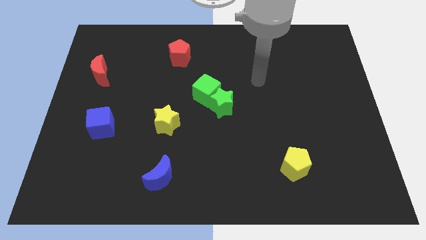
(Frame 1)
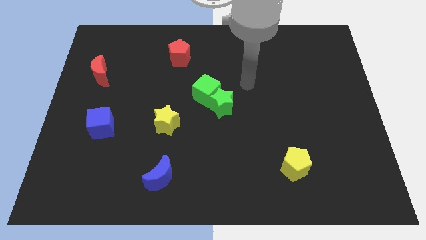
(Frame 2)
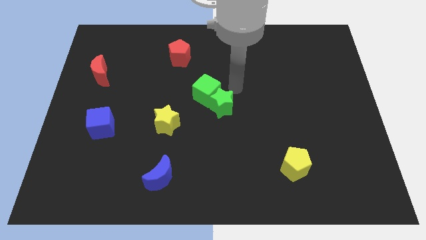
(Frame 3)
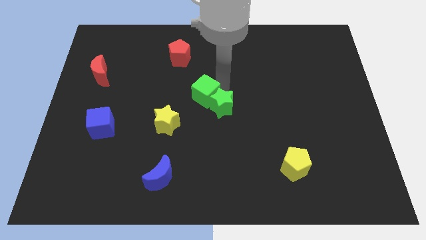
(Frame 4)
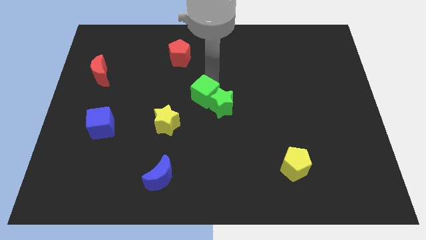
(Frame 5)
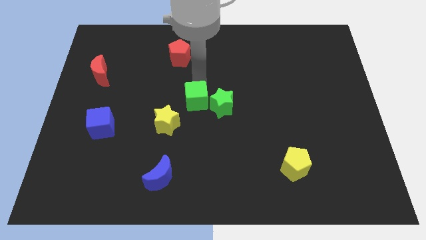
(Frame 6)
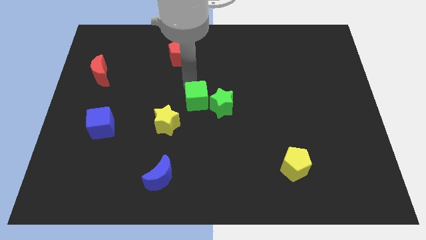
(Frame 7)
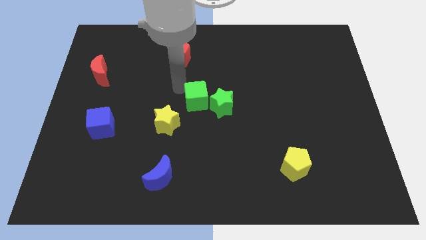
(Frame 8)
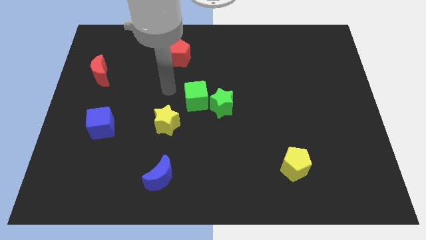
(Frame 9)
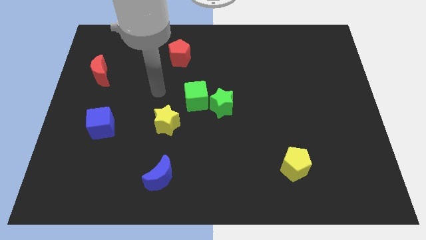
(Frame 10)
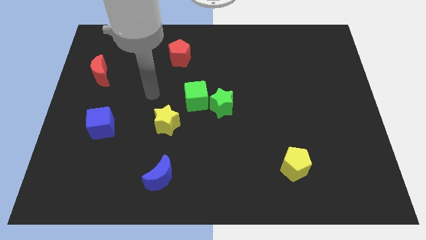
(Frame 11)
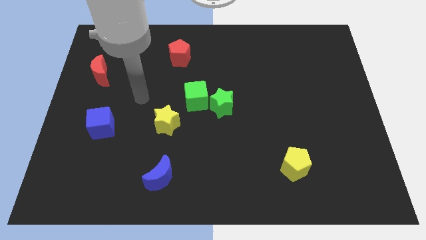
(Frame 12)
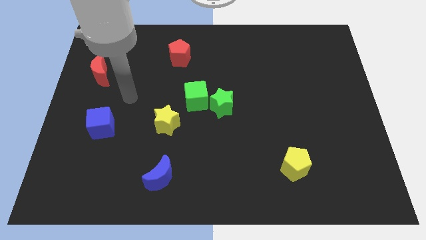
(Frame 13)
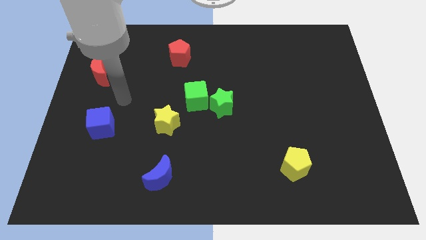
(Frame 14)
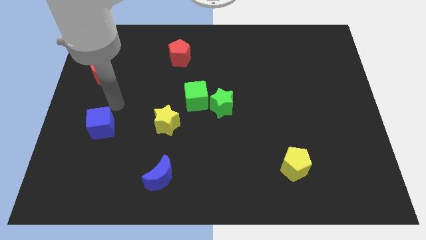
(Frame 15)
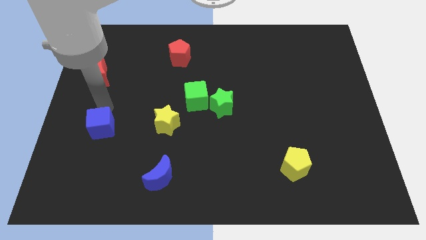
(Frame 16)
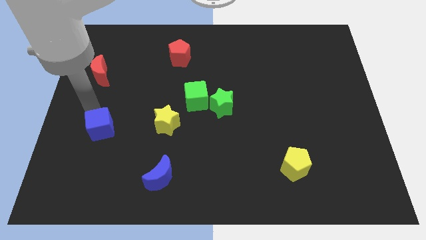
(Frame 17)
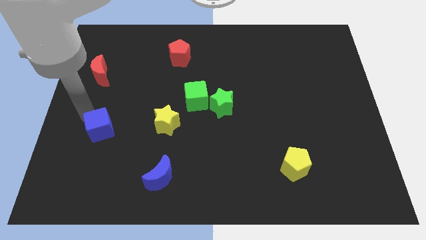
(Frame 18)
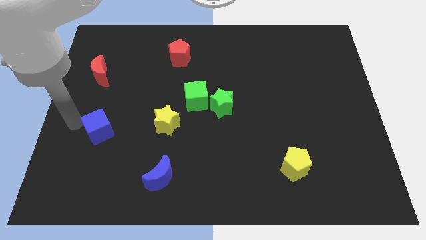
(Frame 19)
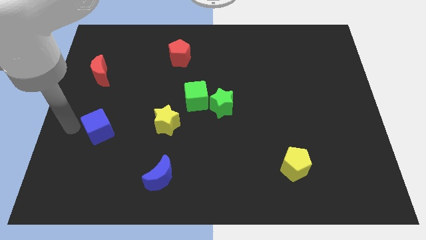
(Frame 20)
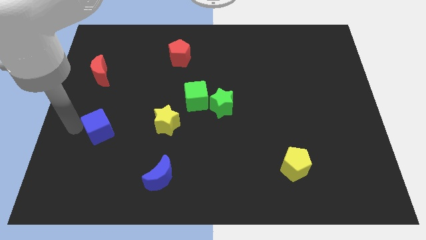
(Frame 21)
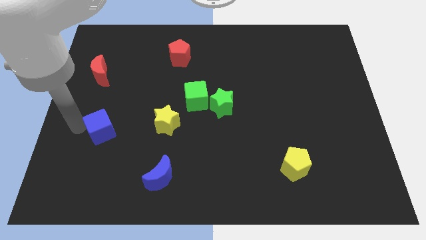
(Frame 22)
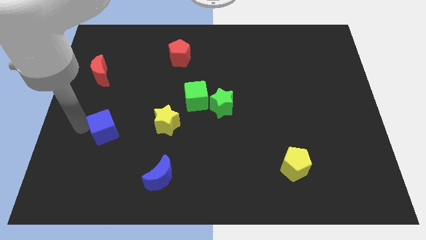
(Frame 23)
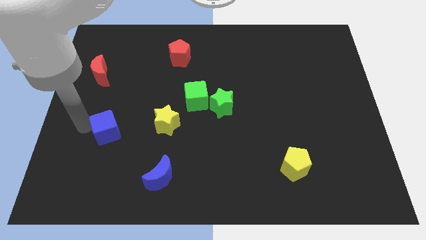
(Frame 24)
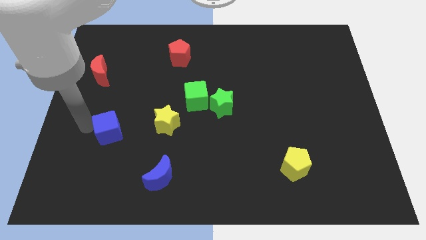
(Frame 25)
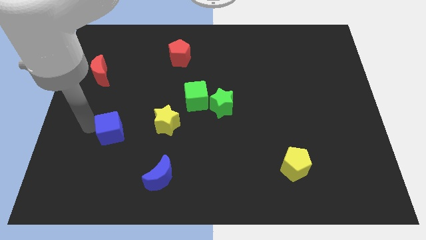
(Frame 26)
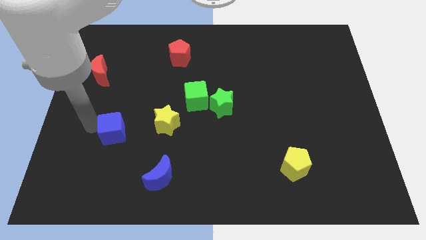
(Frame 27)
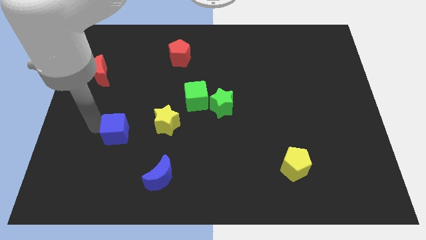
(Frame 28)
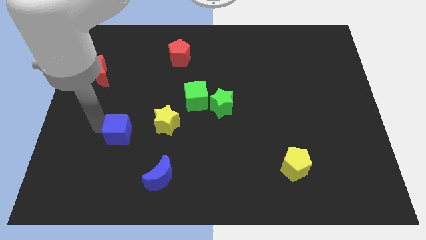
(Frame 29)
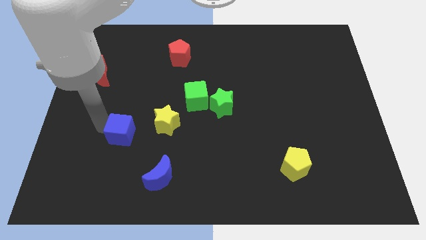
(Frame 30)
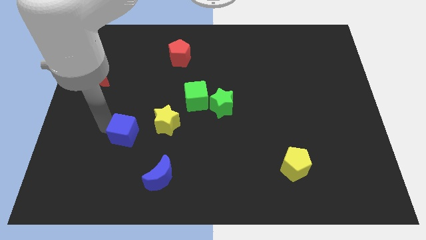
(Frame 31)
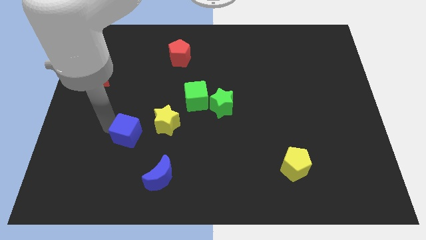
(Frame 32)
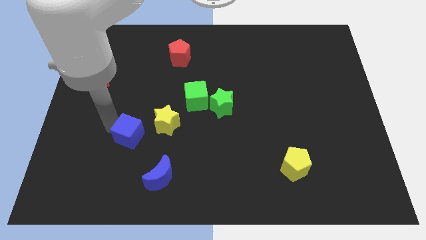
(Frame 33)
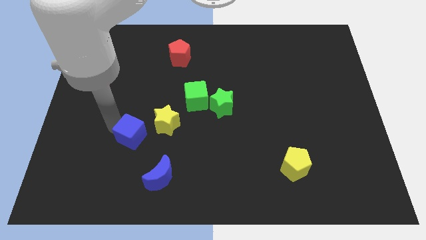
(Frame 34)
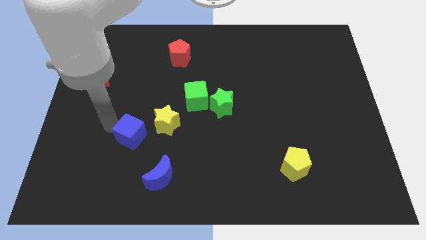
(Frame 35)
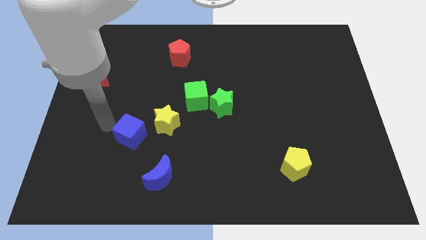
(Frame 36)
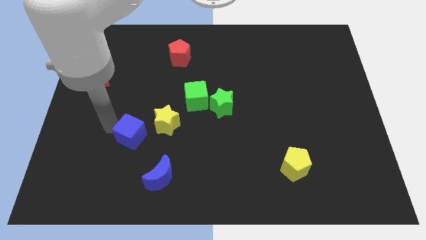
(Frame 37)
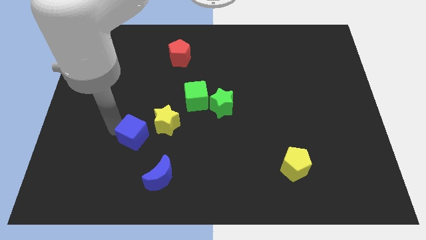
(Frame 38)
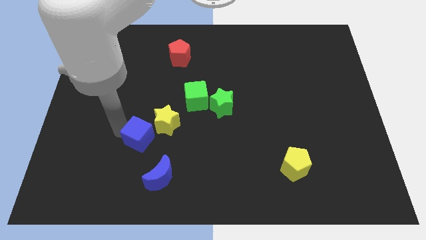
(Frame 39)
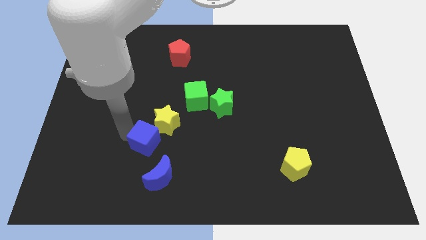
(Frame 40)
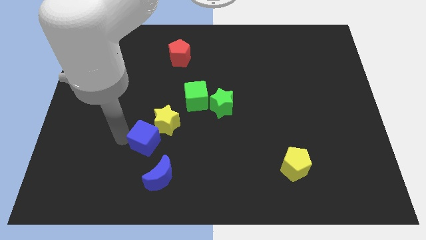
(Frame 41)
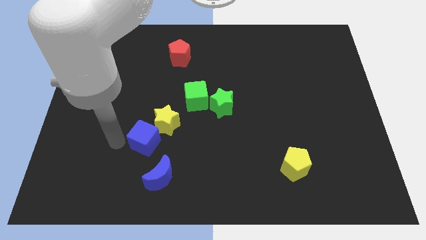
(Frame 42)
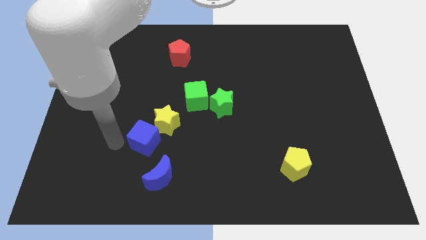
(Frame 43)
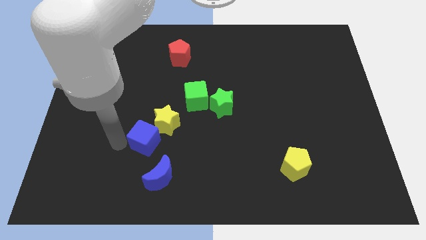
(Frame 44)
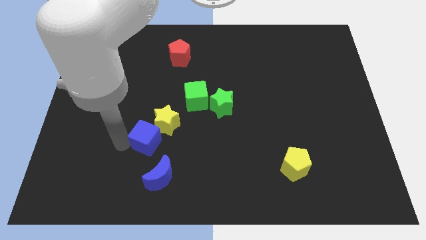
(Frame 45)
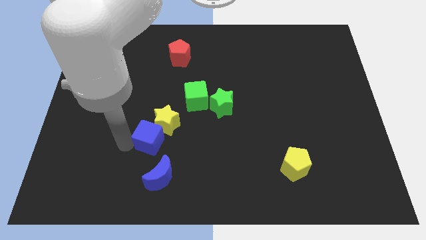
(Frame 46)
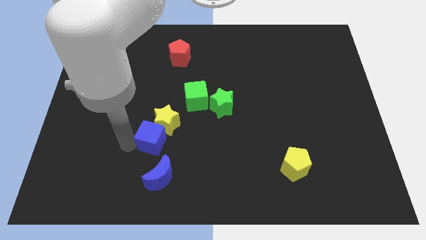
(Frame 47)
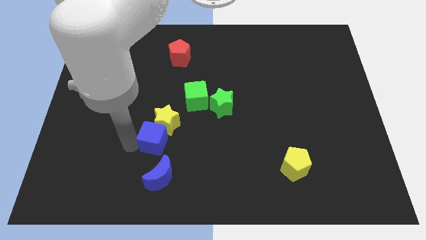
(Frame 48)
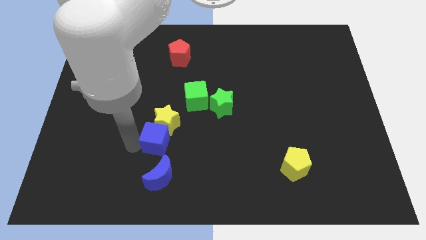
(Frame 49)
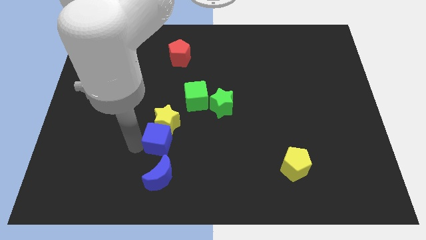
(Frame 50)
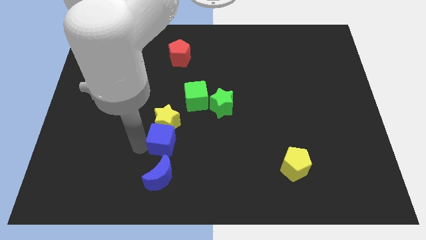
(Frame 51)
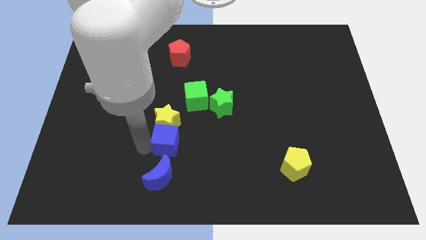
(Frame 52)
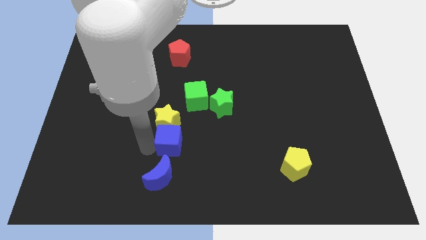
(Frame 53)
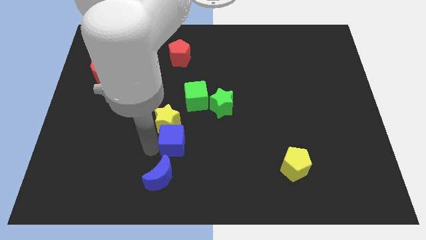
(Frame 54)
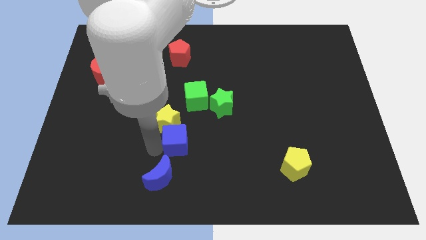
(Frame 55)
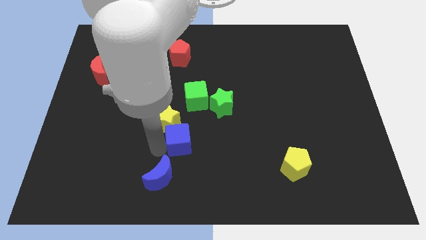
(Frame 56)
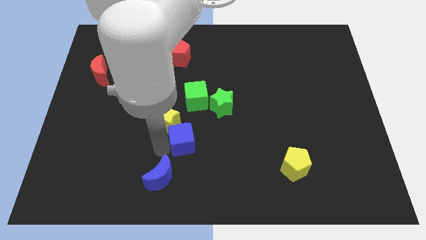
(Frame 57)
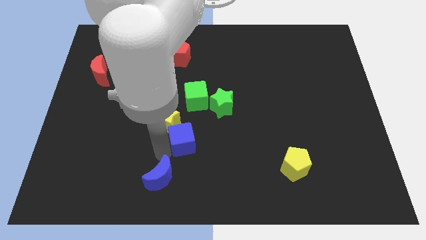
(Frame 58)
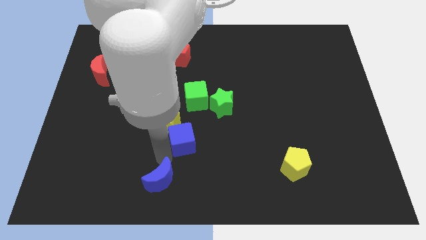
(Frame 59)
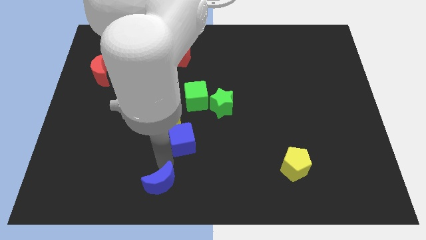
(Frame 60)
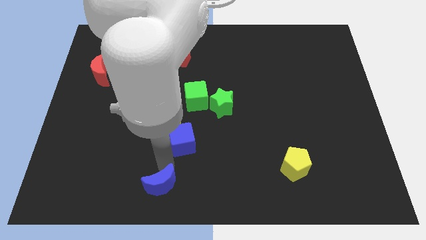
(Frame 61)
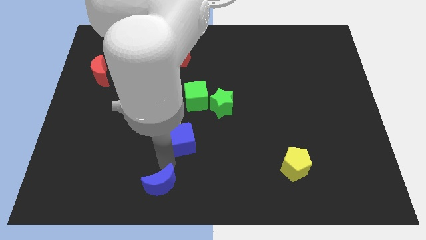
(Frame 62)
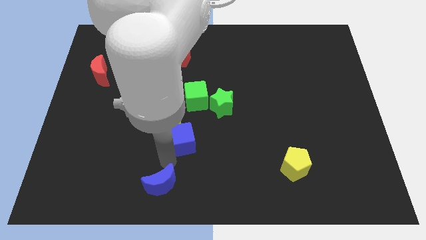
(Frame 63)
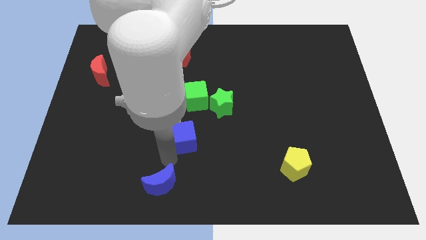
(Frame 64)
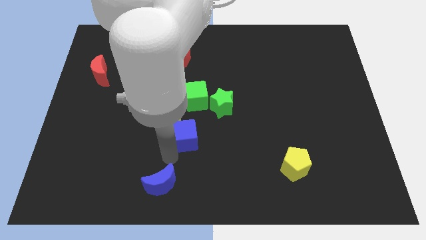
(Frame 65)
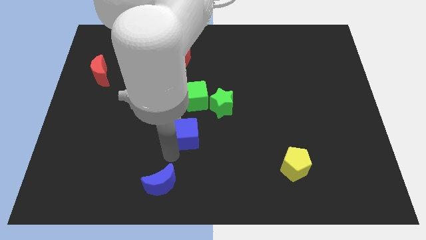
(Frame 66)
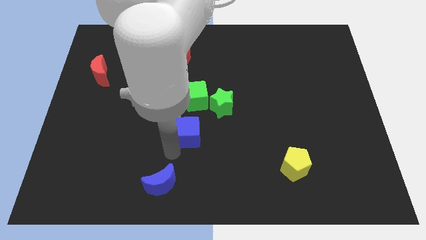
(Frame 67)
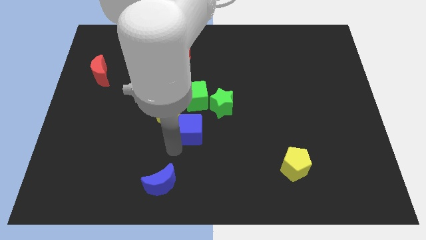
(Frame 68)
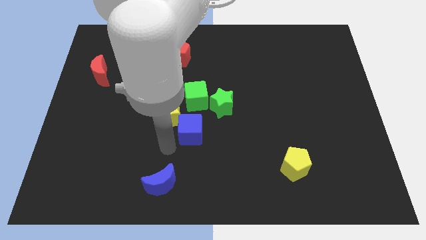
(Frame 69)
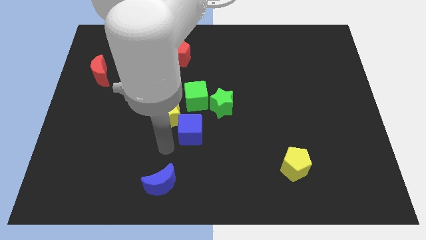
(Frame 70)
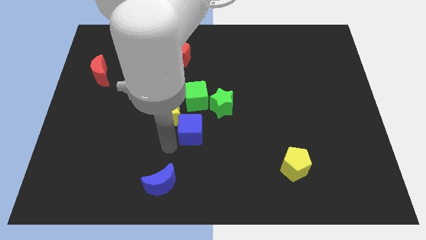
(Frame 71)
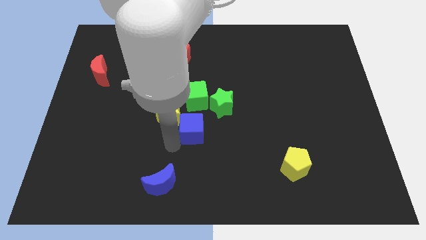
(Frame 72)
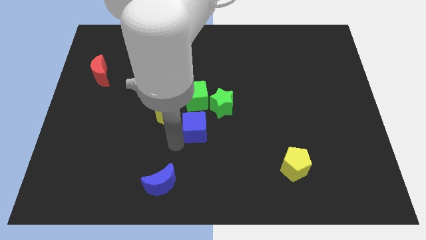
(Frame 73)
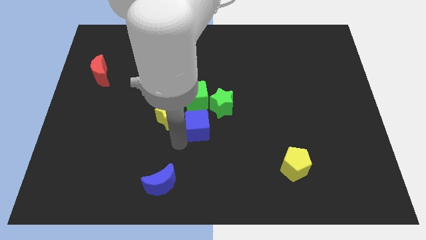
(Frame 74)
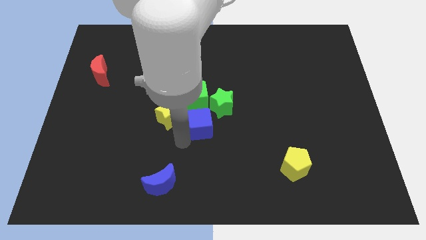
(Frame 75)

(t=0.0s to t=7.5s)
push the blue cube to the bottom right side of the green cube
